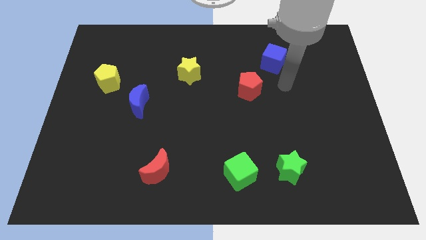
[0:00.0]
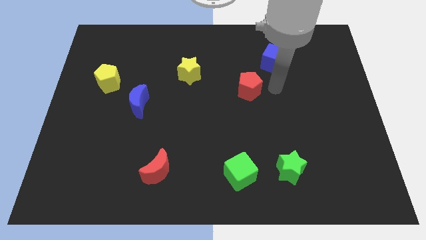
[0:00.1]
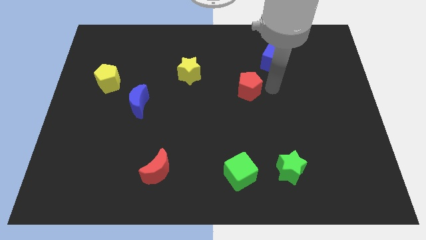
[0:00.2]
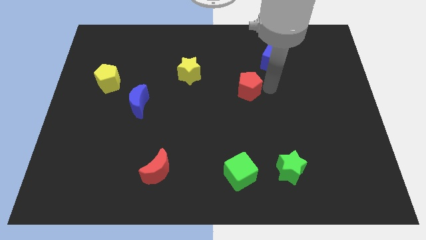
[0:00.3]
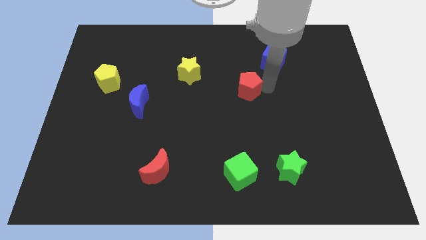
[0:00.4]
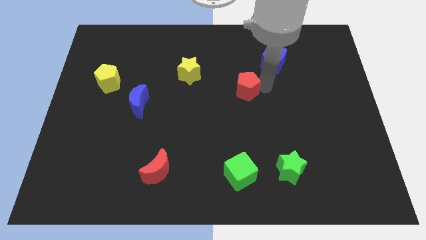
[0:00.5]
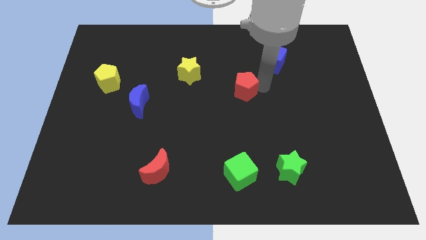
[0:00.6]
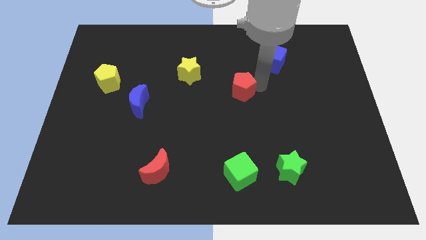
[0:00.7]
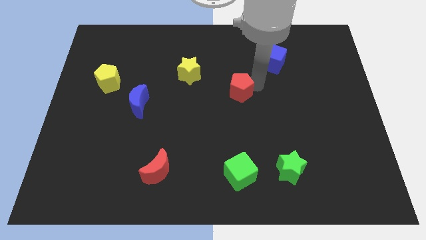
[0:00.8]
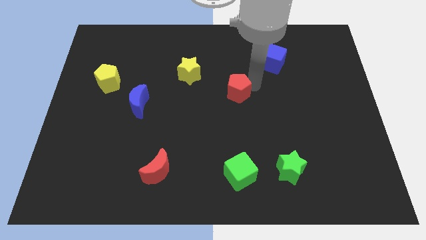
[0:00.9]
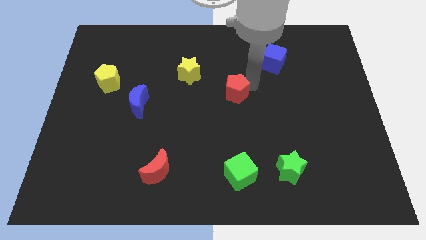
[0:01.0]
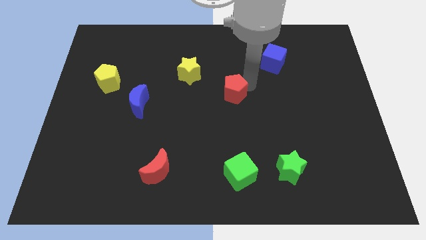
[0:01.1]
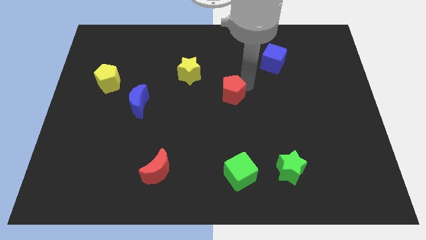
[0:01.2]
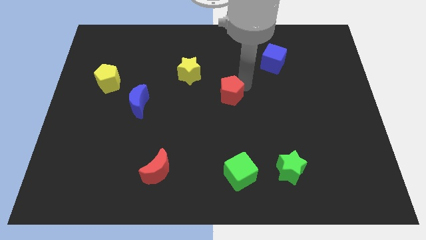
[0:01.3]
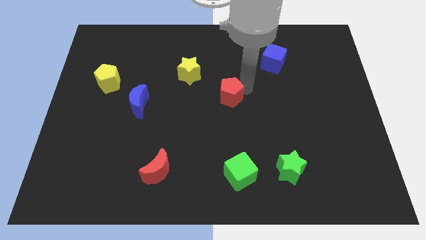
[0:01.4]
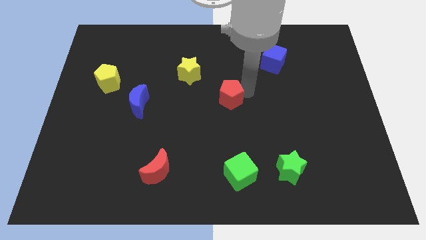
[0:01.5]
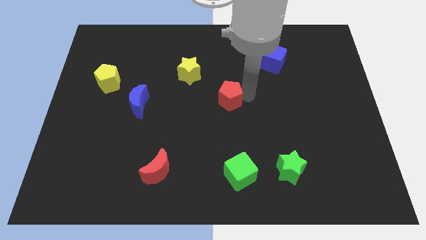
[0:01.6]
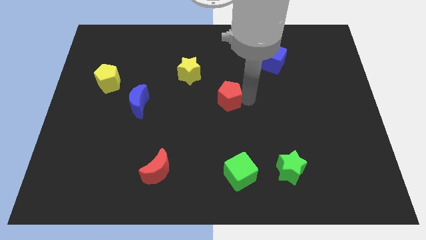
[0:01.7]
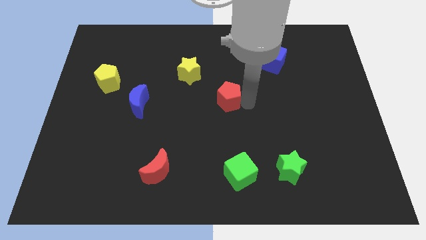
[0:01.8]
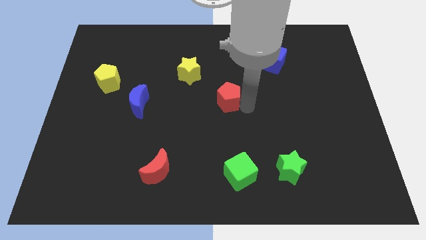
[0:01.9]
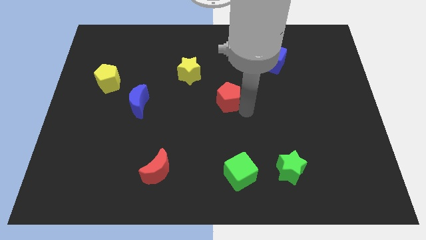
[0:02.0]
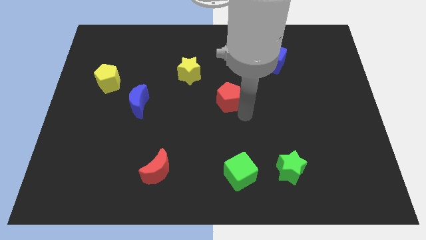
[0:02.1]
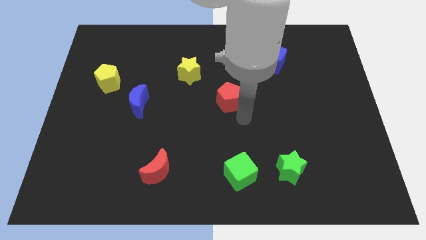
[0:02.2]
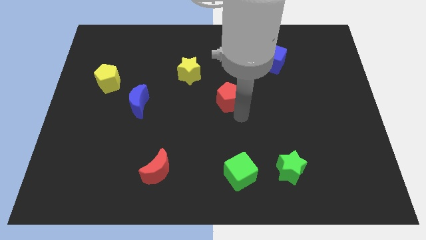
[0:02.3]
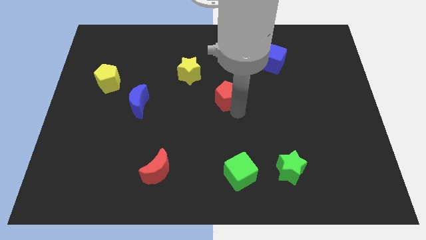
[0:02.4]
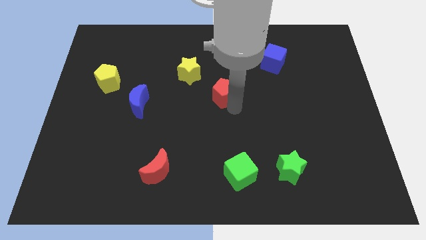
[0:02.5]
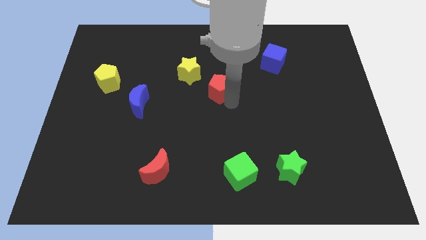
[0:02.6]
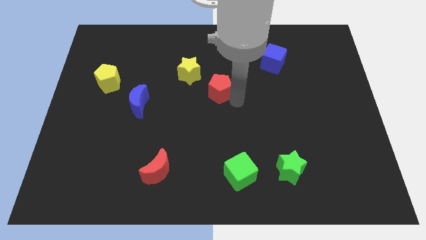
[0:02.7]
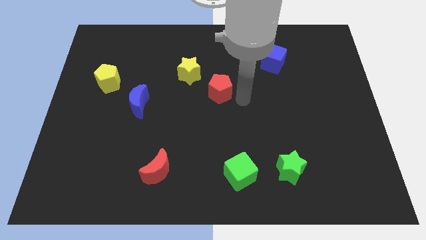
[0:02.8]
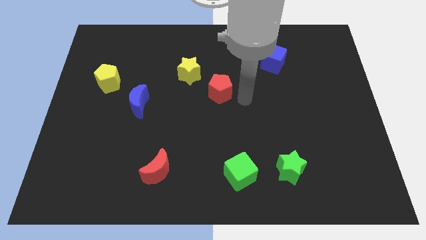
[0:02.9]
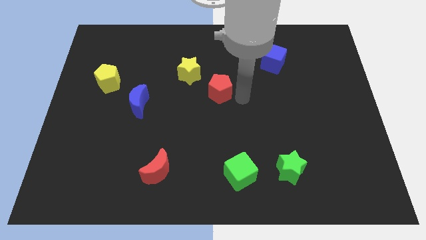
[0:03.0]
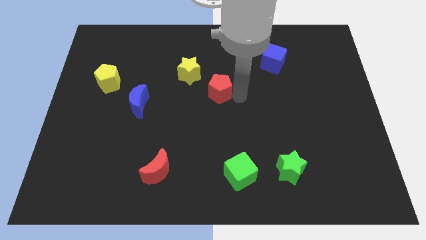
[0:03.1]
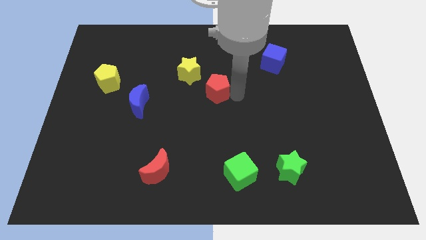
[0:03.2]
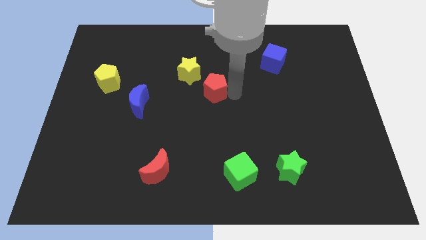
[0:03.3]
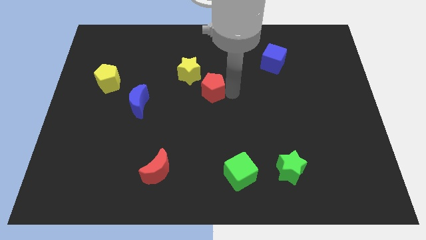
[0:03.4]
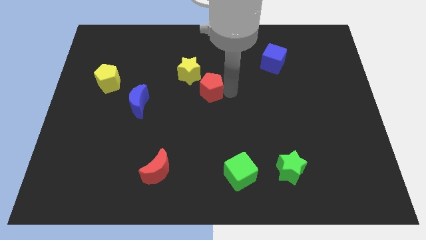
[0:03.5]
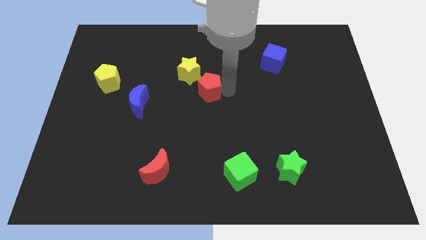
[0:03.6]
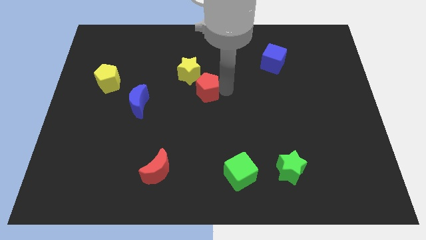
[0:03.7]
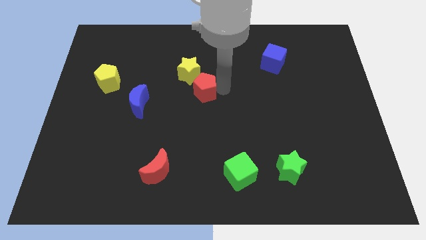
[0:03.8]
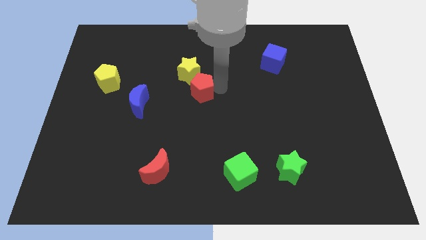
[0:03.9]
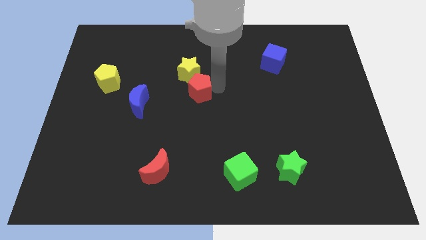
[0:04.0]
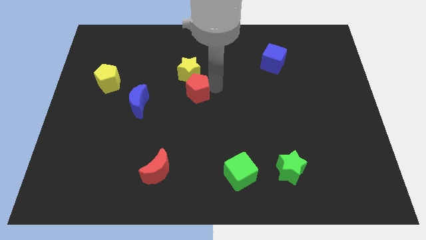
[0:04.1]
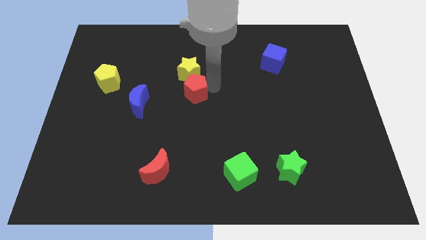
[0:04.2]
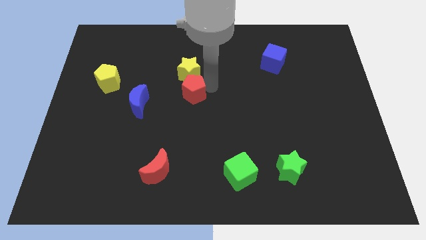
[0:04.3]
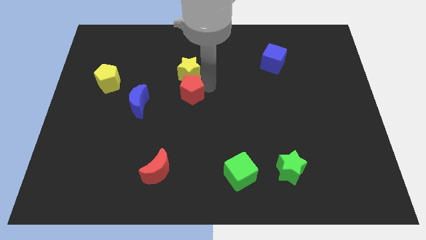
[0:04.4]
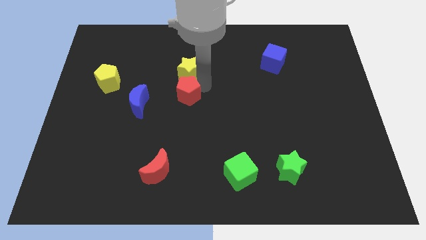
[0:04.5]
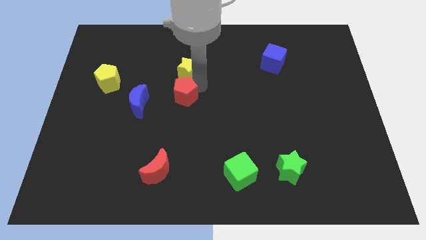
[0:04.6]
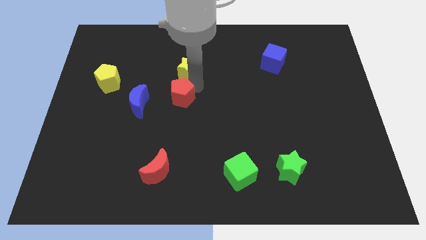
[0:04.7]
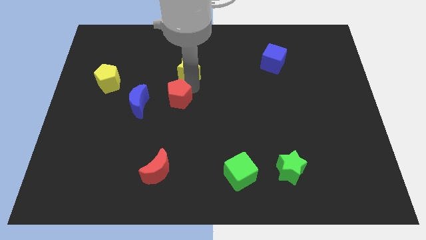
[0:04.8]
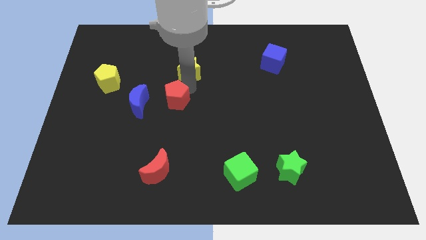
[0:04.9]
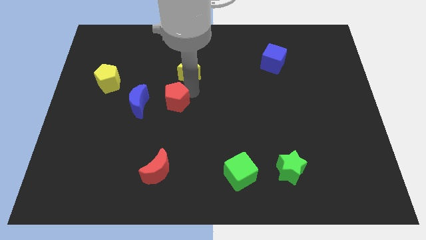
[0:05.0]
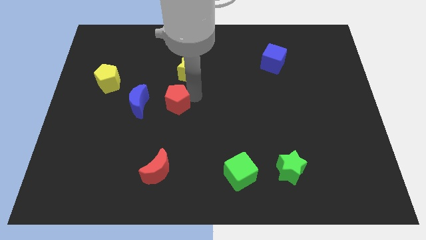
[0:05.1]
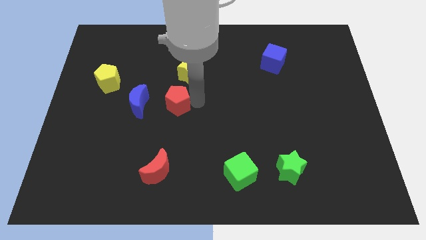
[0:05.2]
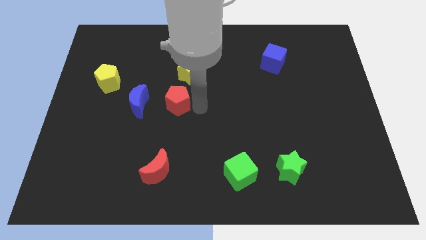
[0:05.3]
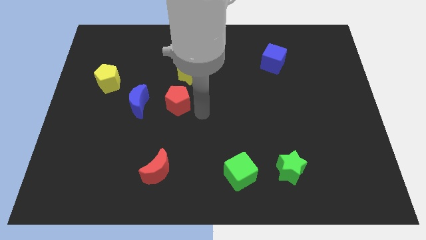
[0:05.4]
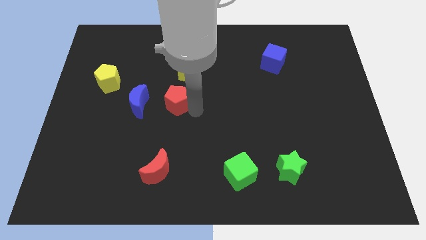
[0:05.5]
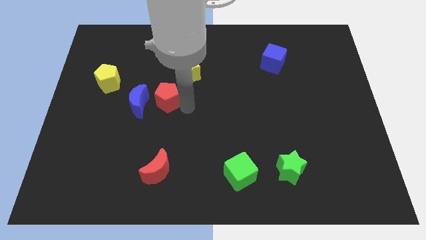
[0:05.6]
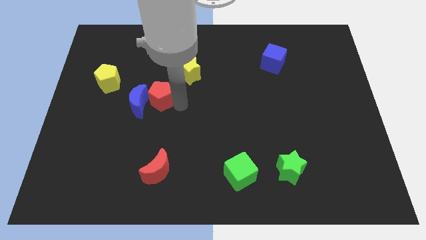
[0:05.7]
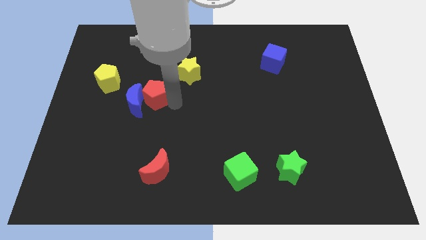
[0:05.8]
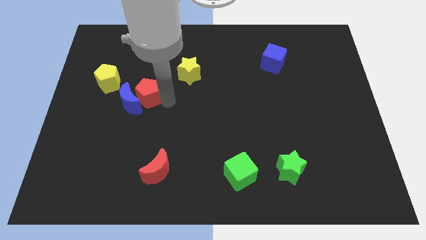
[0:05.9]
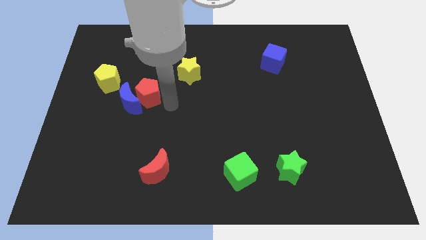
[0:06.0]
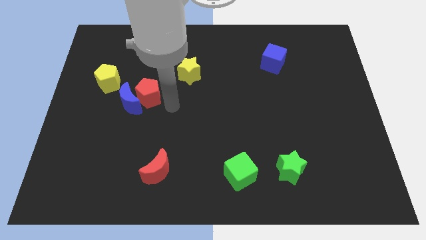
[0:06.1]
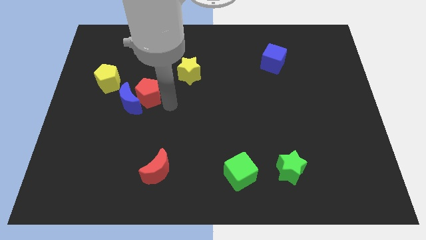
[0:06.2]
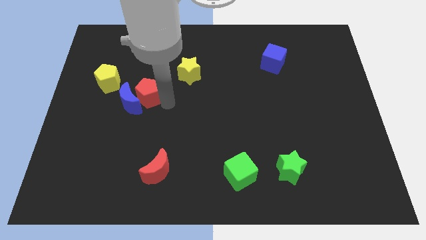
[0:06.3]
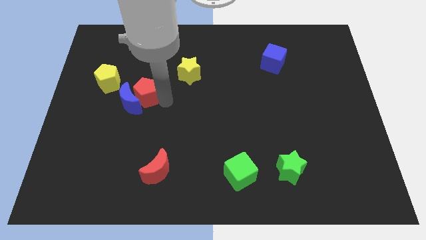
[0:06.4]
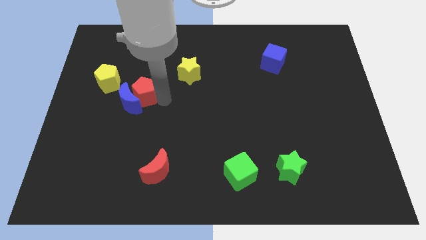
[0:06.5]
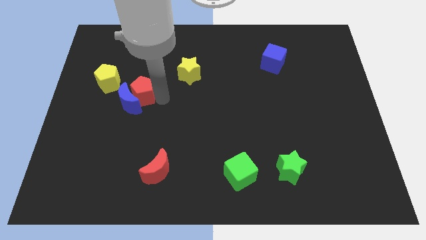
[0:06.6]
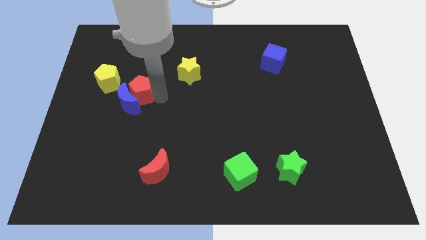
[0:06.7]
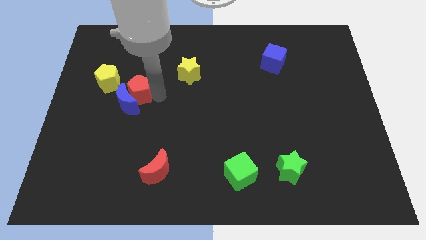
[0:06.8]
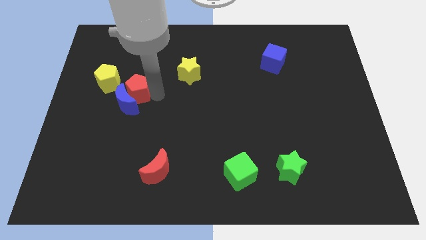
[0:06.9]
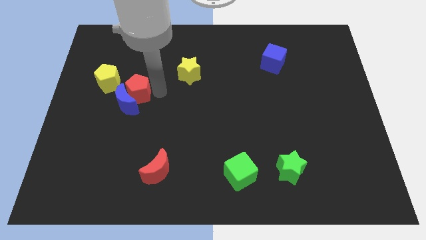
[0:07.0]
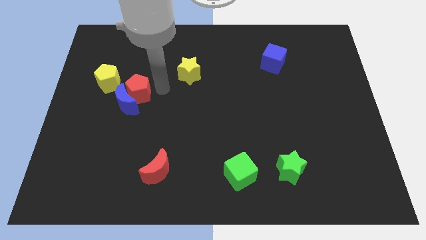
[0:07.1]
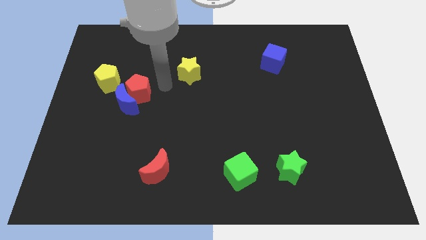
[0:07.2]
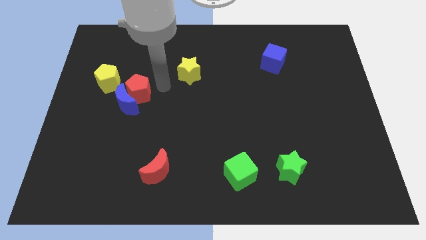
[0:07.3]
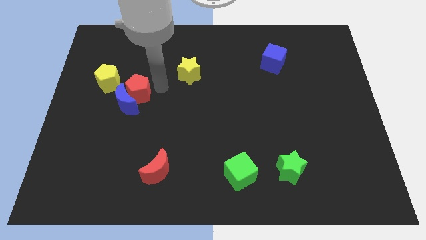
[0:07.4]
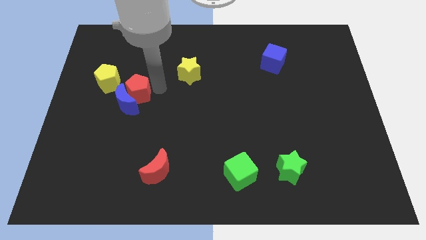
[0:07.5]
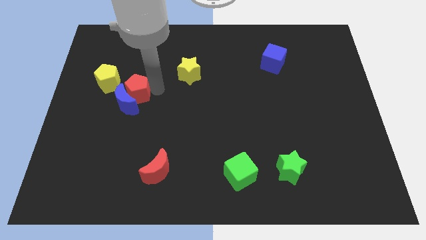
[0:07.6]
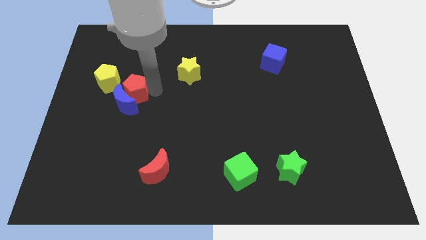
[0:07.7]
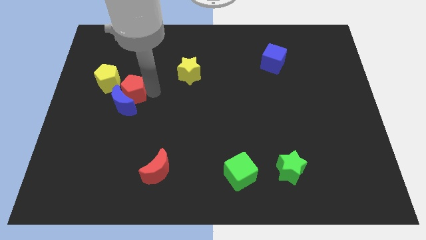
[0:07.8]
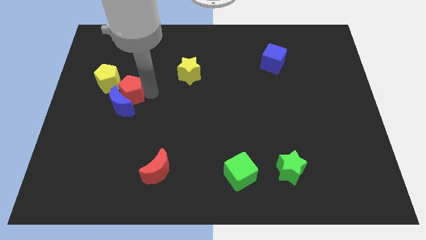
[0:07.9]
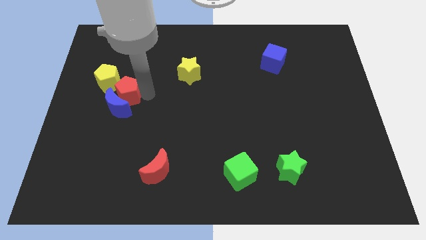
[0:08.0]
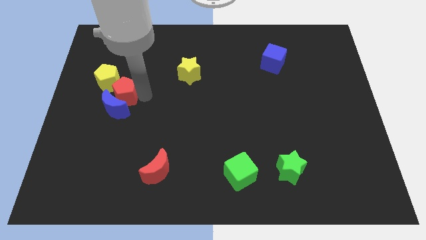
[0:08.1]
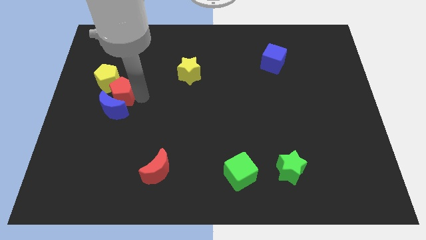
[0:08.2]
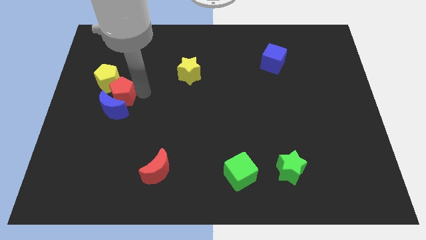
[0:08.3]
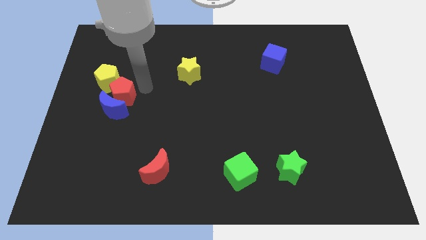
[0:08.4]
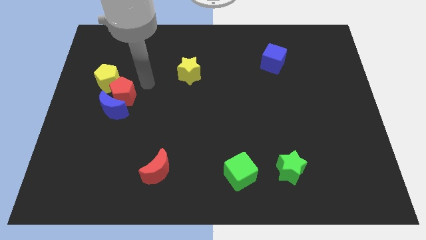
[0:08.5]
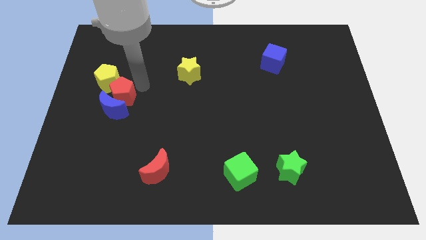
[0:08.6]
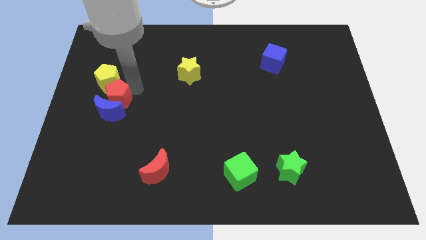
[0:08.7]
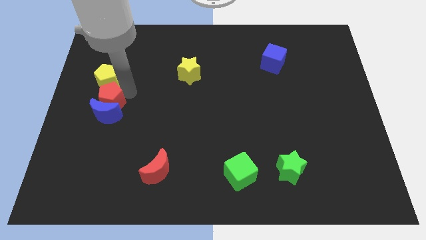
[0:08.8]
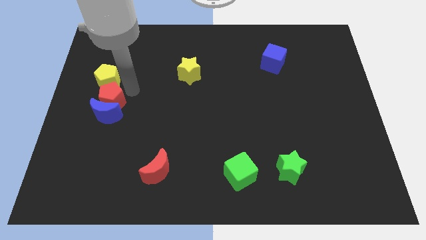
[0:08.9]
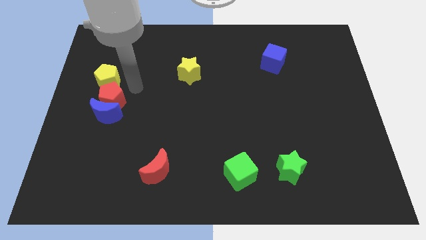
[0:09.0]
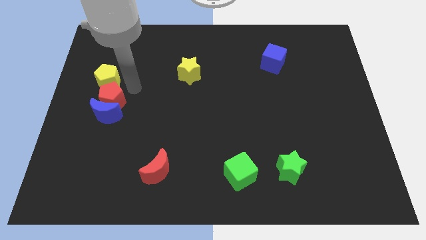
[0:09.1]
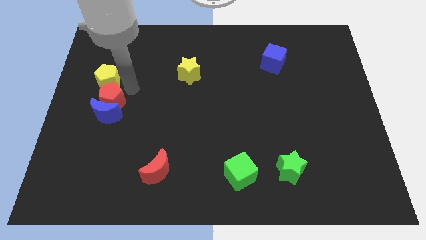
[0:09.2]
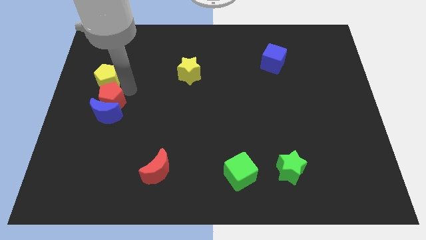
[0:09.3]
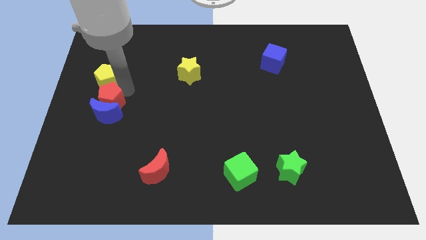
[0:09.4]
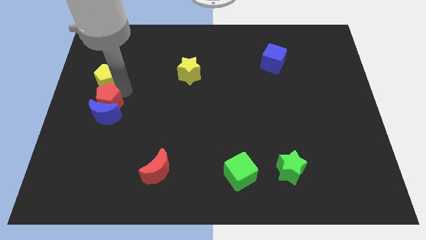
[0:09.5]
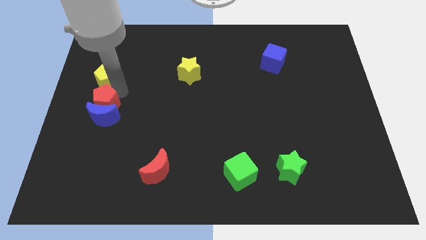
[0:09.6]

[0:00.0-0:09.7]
put the red pentagon to the left side
